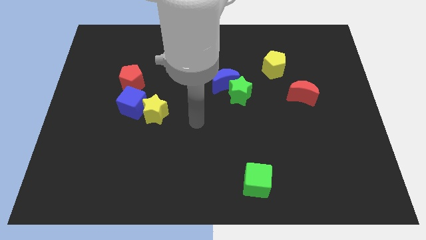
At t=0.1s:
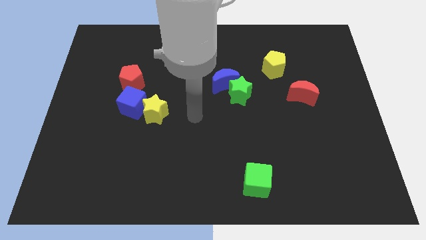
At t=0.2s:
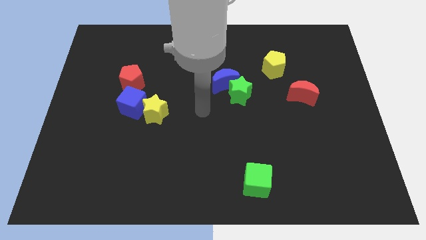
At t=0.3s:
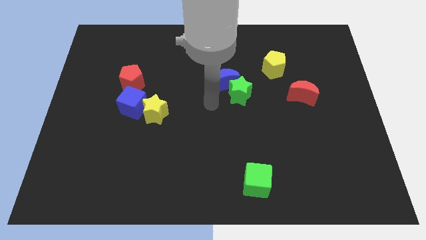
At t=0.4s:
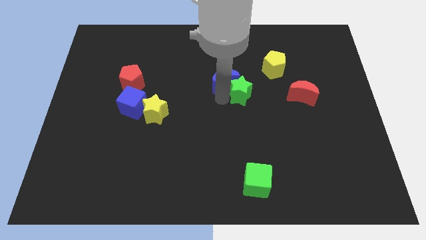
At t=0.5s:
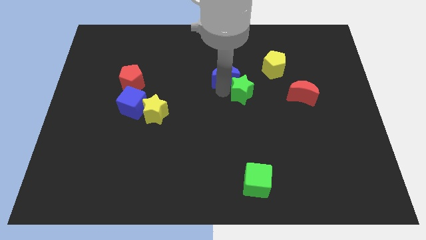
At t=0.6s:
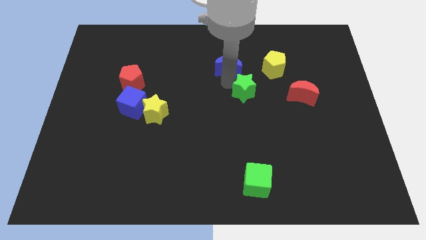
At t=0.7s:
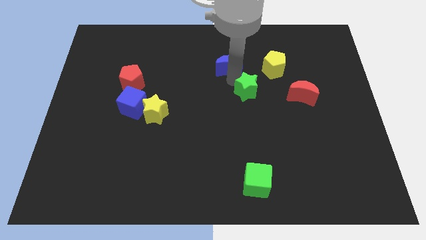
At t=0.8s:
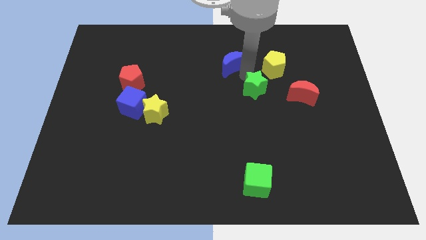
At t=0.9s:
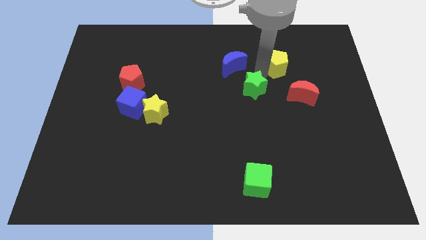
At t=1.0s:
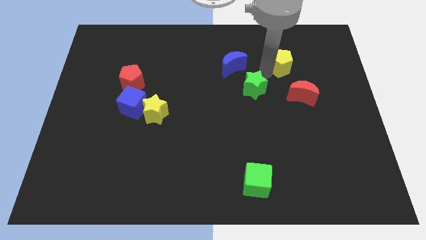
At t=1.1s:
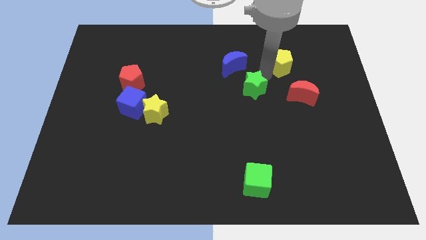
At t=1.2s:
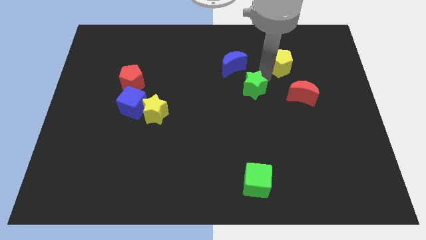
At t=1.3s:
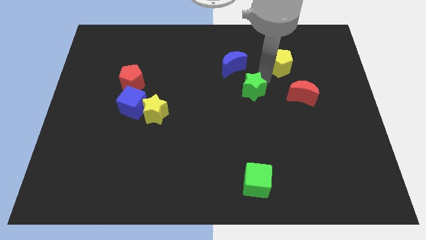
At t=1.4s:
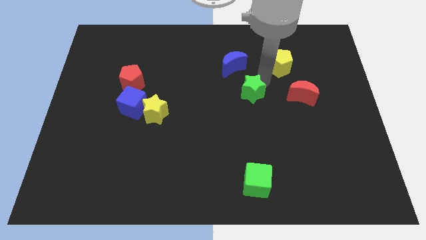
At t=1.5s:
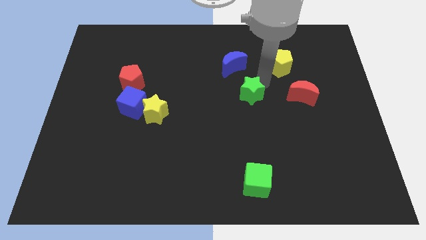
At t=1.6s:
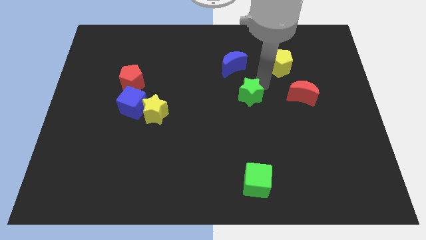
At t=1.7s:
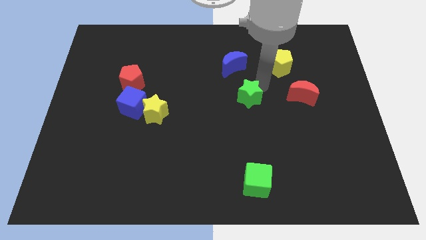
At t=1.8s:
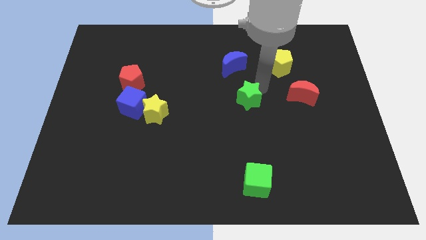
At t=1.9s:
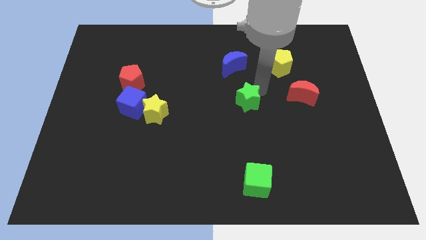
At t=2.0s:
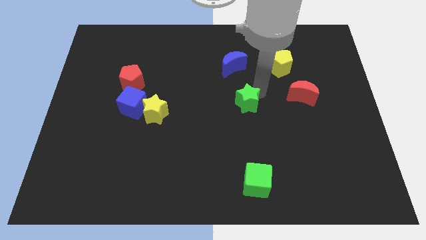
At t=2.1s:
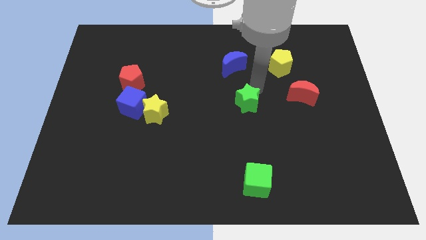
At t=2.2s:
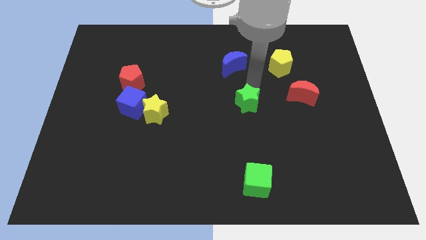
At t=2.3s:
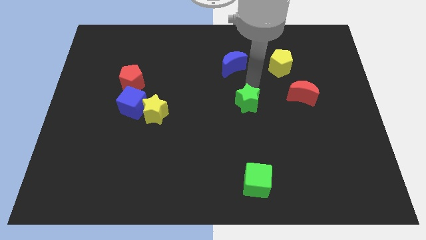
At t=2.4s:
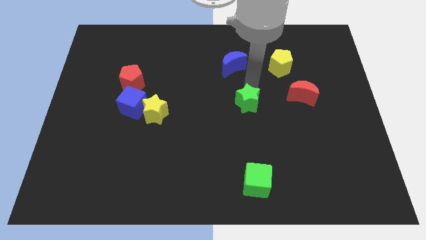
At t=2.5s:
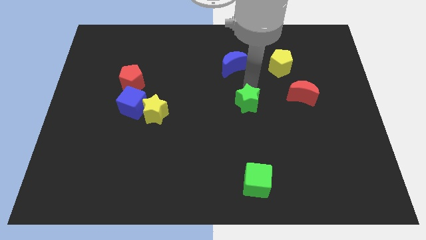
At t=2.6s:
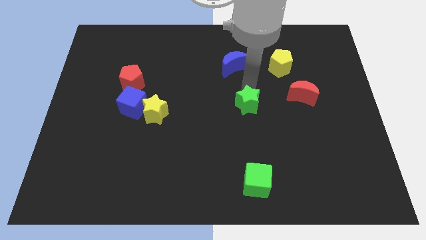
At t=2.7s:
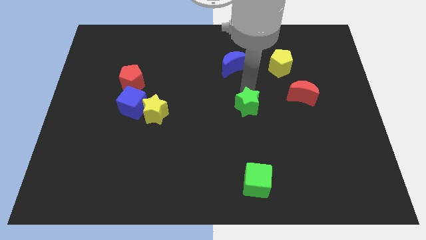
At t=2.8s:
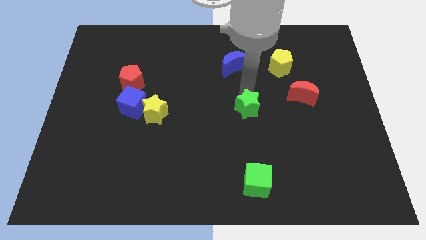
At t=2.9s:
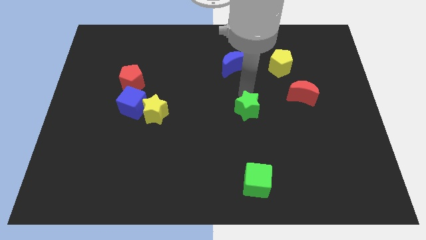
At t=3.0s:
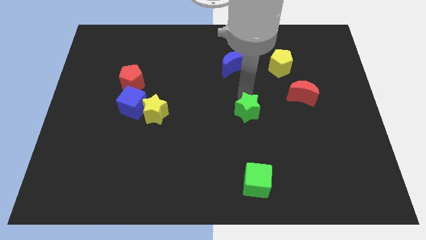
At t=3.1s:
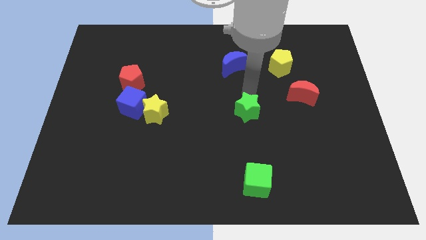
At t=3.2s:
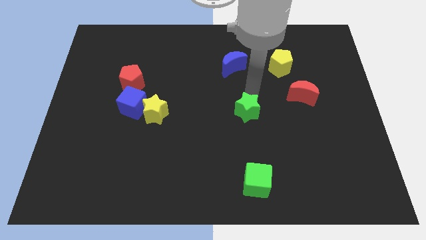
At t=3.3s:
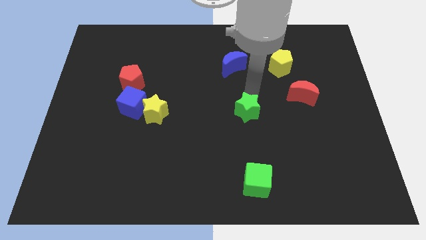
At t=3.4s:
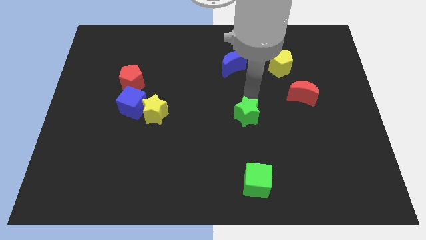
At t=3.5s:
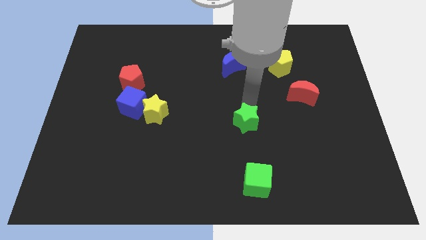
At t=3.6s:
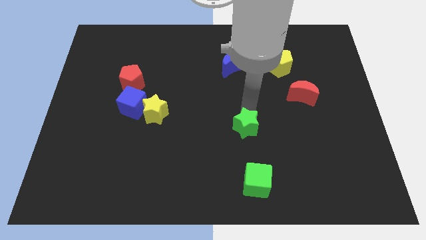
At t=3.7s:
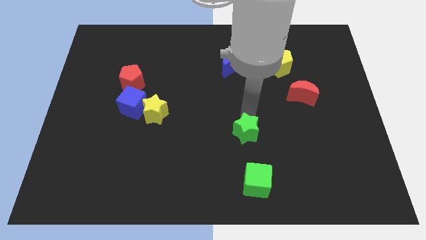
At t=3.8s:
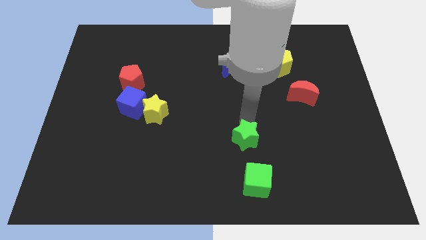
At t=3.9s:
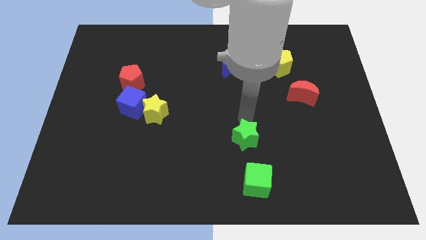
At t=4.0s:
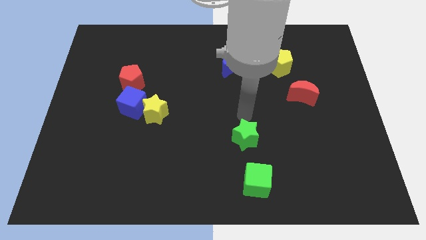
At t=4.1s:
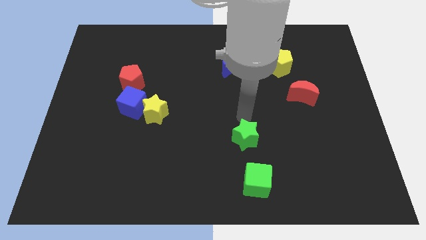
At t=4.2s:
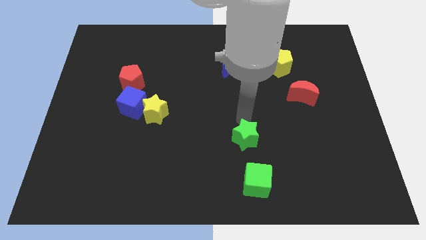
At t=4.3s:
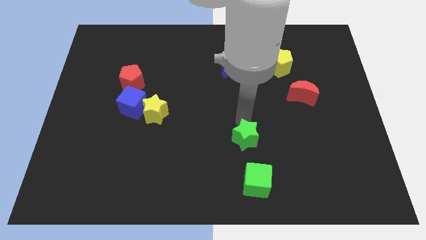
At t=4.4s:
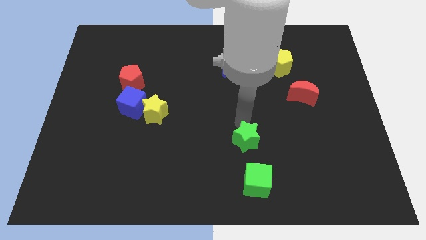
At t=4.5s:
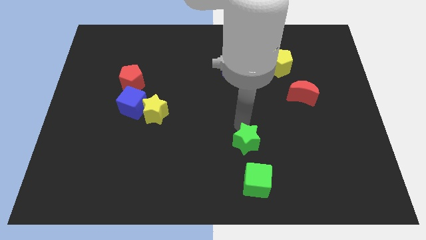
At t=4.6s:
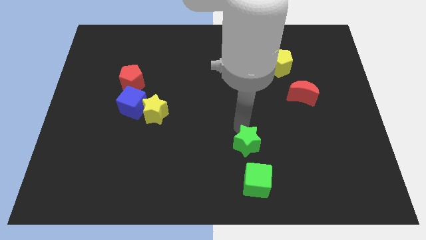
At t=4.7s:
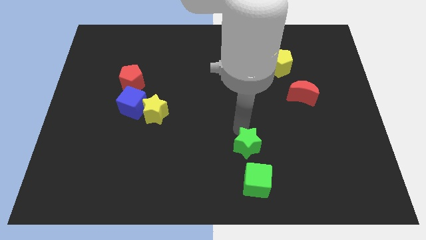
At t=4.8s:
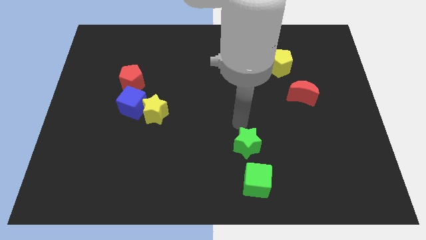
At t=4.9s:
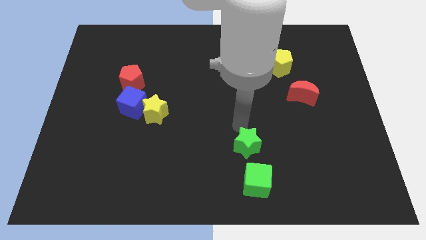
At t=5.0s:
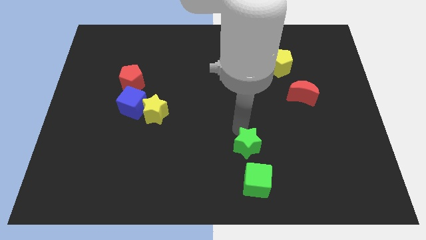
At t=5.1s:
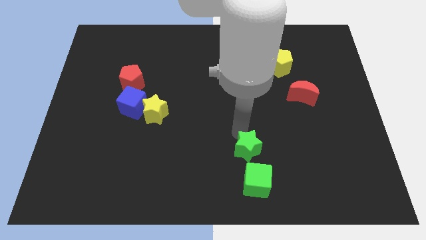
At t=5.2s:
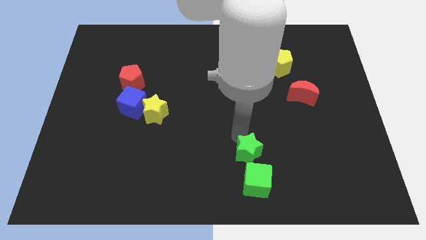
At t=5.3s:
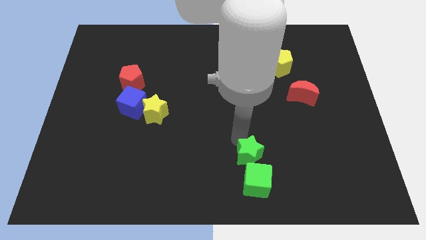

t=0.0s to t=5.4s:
slide the green star close to the green cube

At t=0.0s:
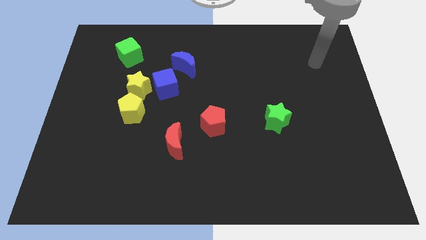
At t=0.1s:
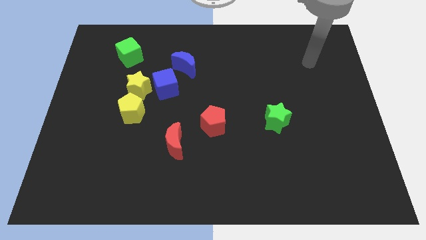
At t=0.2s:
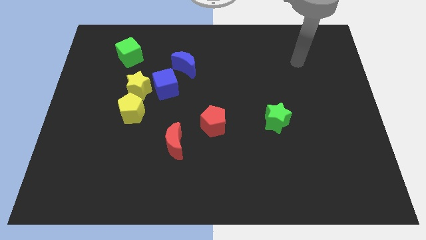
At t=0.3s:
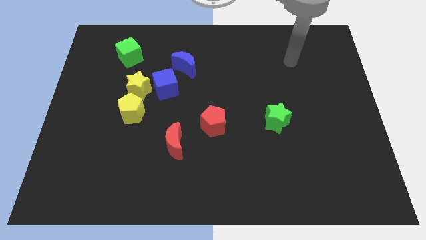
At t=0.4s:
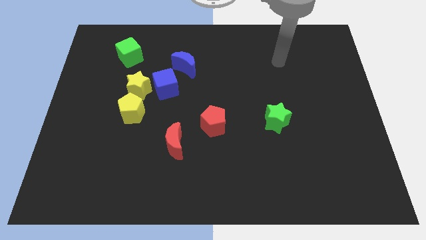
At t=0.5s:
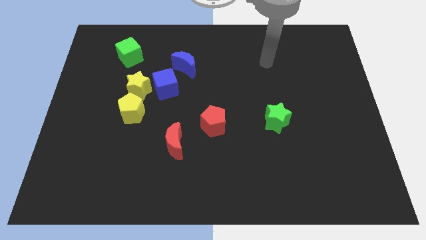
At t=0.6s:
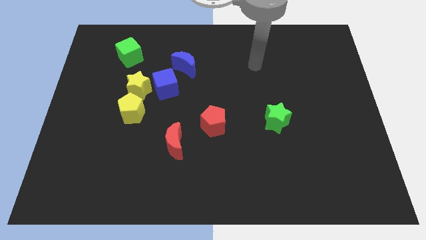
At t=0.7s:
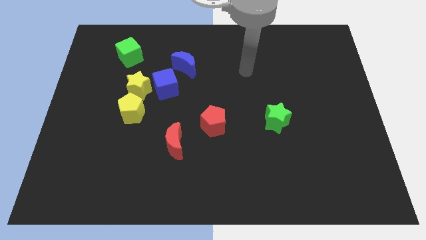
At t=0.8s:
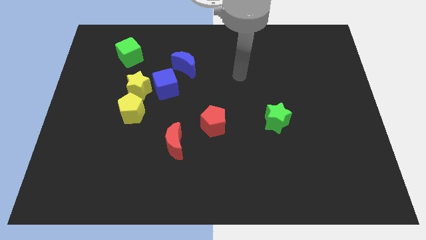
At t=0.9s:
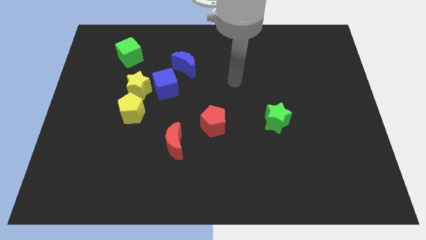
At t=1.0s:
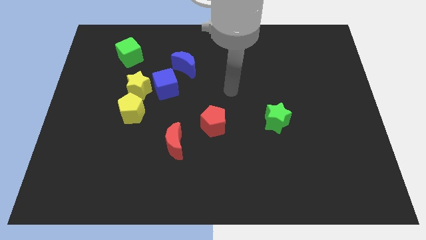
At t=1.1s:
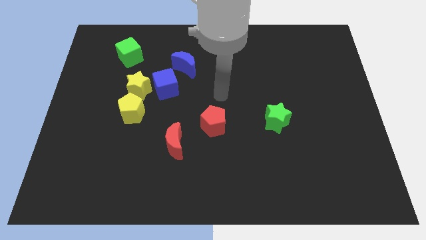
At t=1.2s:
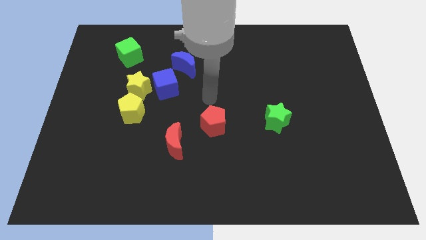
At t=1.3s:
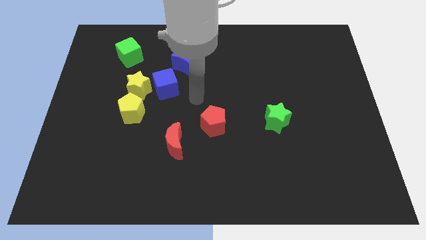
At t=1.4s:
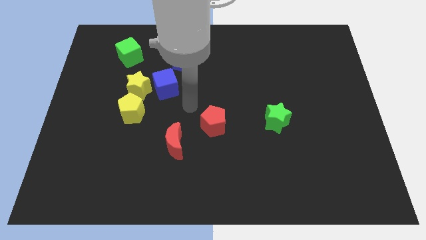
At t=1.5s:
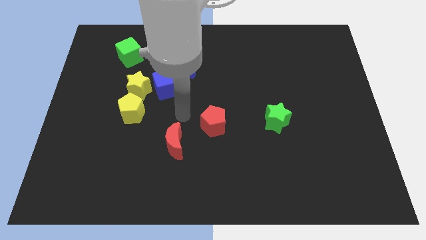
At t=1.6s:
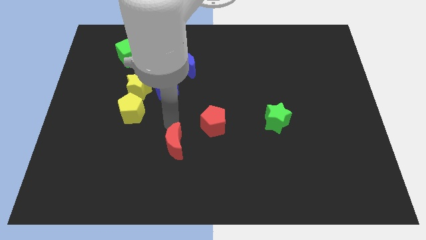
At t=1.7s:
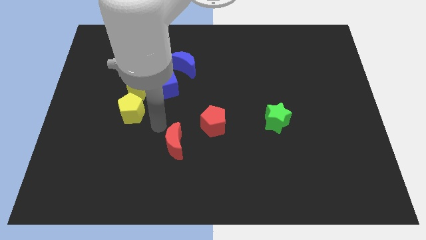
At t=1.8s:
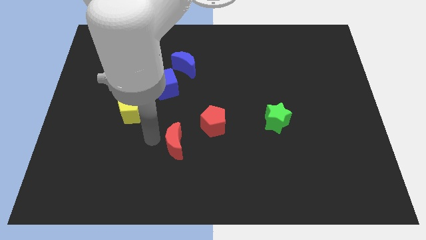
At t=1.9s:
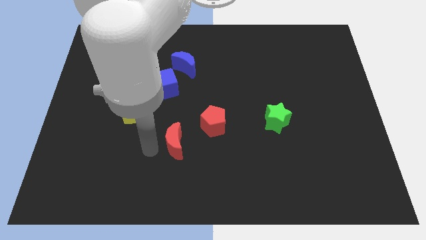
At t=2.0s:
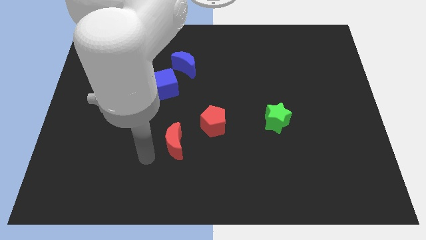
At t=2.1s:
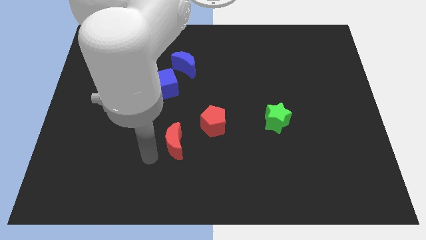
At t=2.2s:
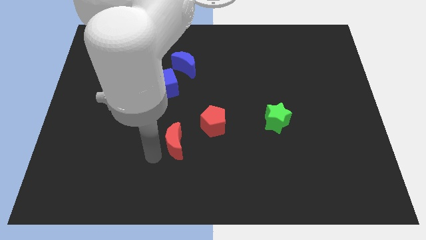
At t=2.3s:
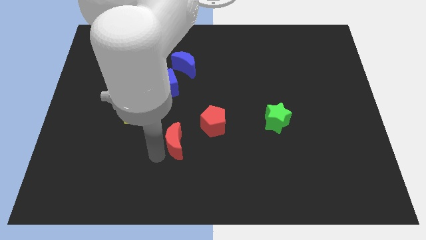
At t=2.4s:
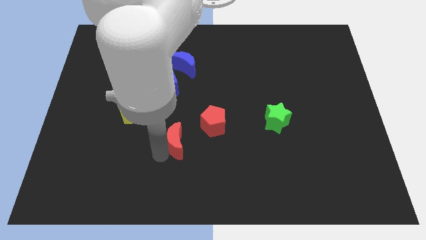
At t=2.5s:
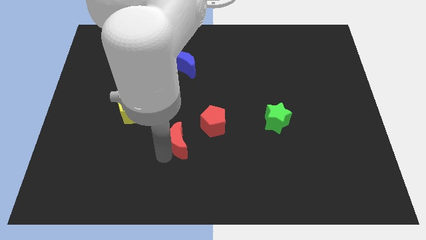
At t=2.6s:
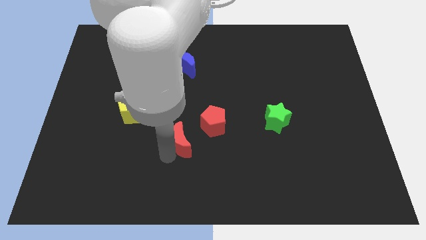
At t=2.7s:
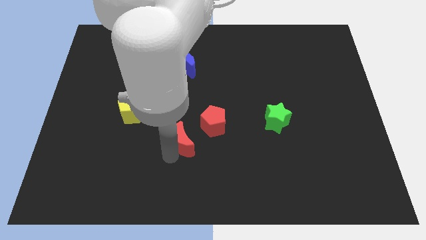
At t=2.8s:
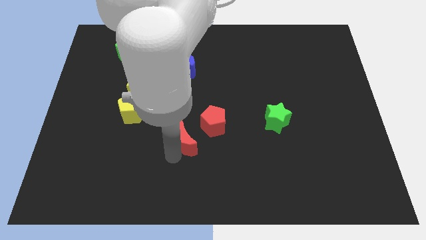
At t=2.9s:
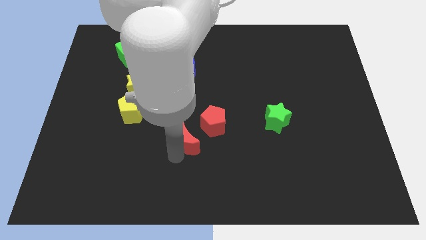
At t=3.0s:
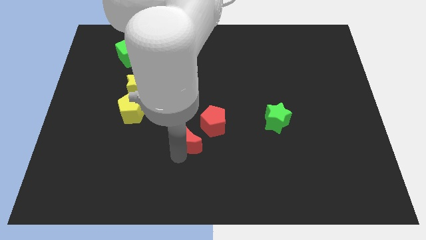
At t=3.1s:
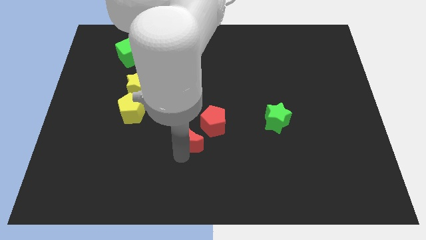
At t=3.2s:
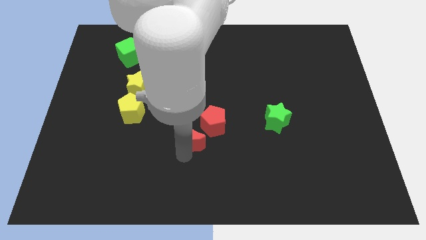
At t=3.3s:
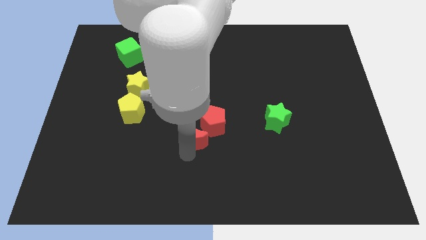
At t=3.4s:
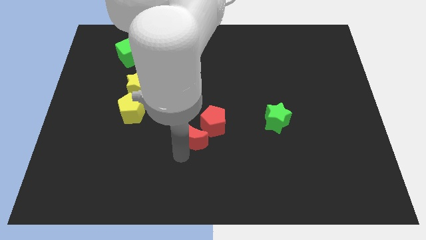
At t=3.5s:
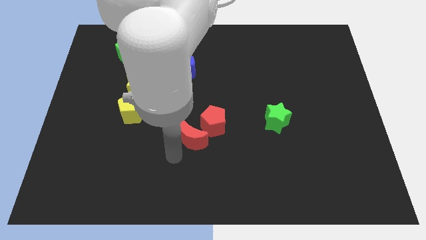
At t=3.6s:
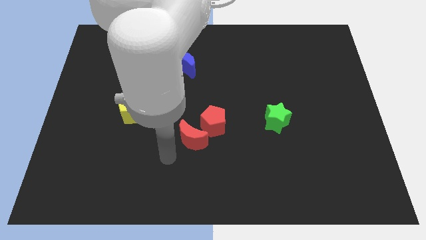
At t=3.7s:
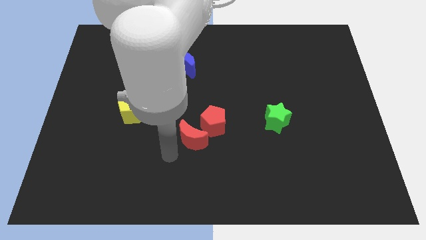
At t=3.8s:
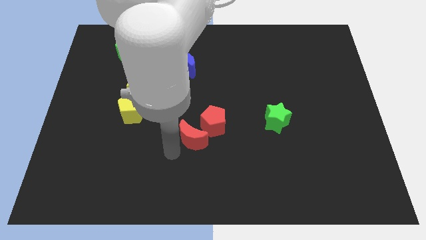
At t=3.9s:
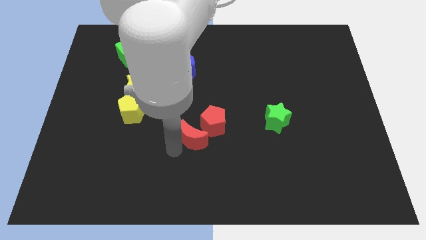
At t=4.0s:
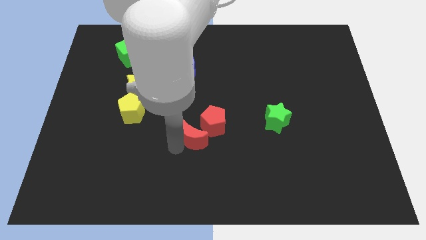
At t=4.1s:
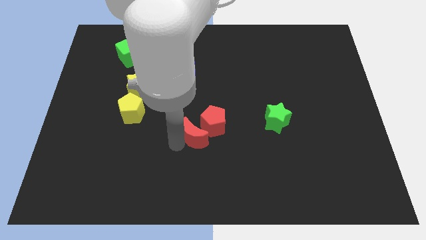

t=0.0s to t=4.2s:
push the red moon next to the red pentagon
